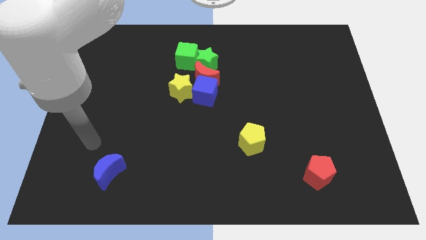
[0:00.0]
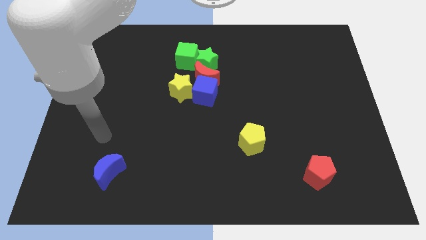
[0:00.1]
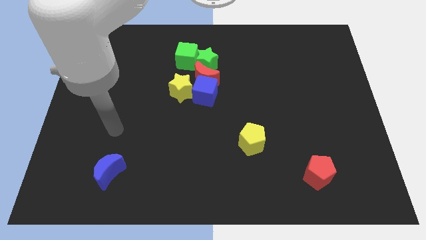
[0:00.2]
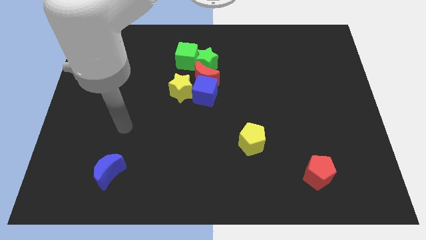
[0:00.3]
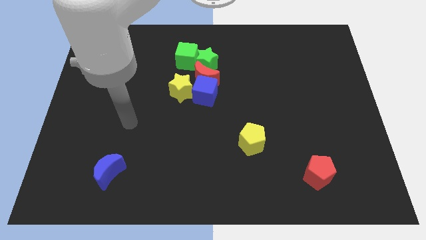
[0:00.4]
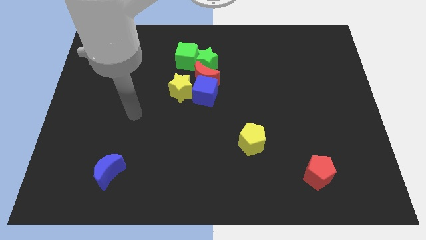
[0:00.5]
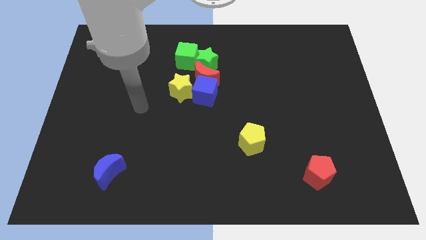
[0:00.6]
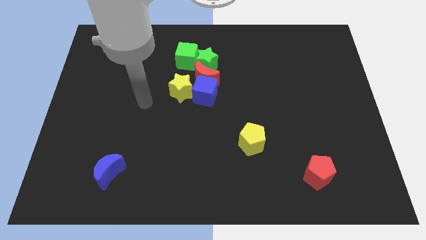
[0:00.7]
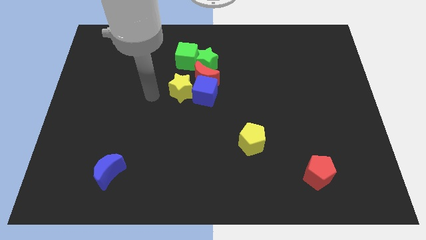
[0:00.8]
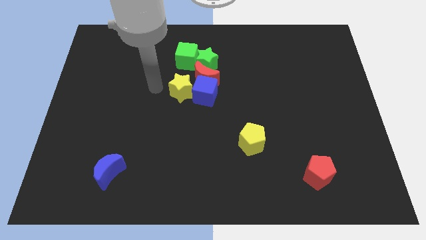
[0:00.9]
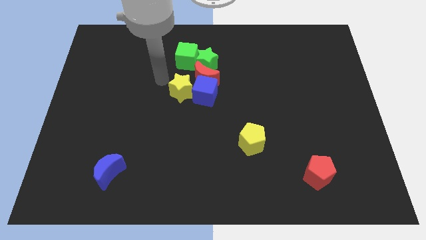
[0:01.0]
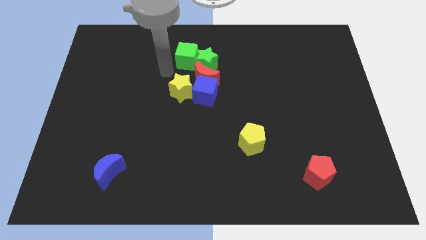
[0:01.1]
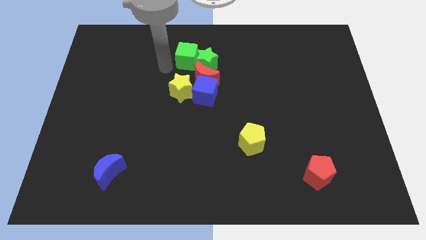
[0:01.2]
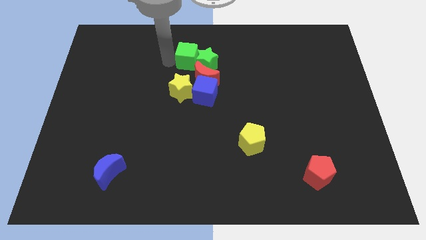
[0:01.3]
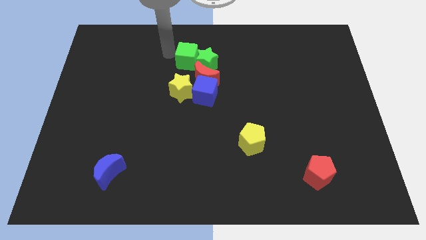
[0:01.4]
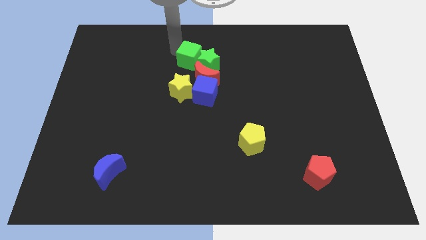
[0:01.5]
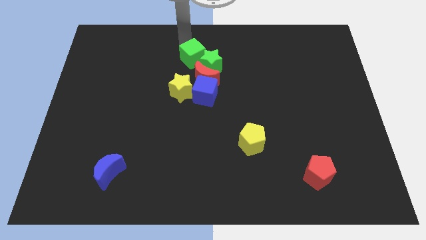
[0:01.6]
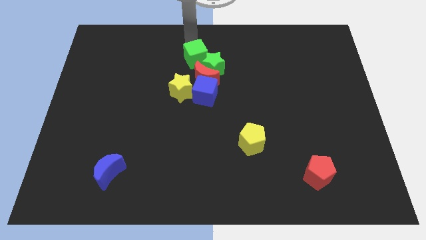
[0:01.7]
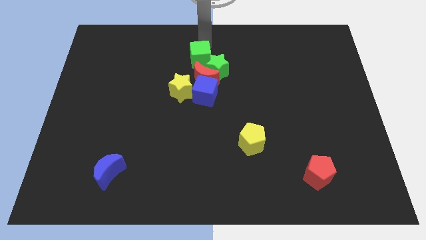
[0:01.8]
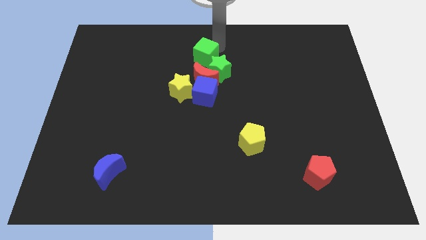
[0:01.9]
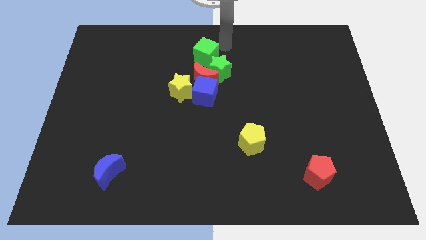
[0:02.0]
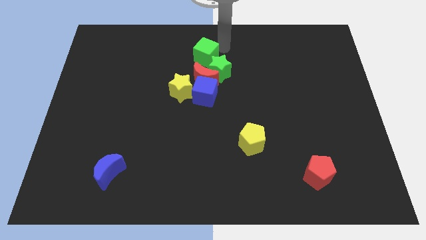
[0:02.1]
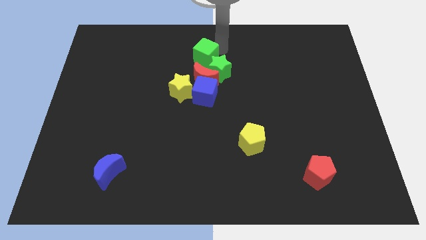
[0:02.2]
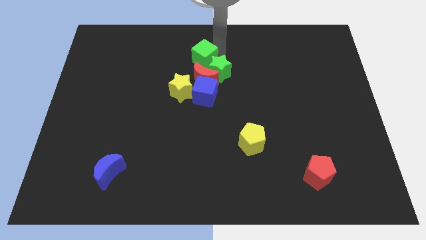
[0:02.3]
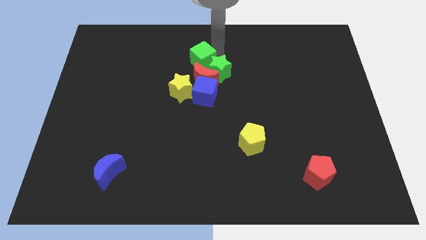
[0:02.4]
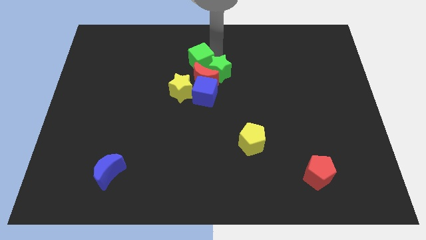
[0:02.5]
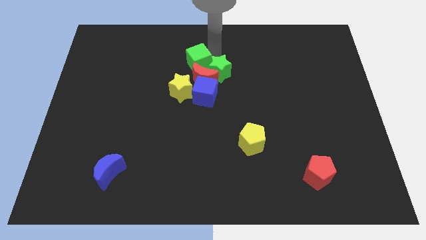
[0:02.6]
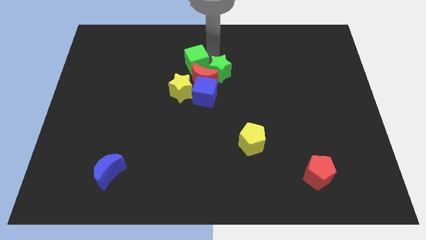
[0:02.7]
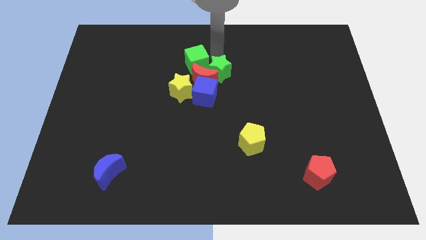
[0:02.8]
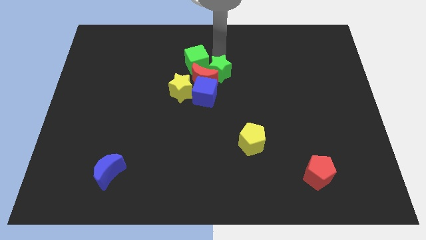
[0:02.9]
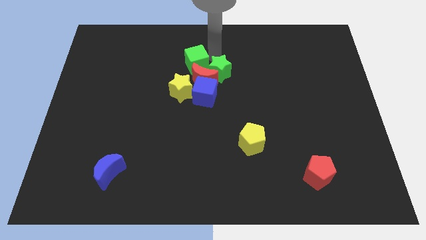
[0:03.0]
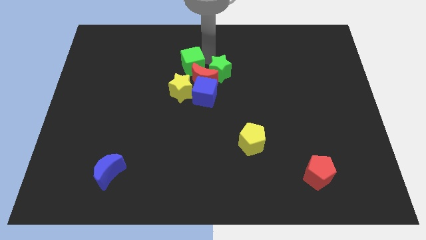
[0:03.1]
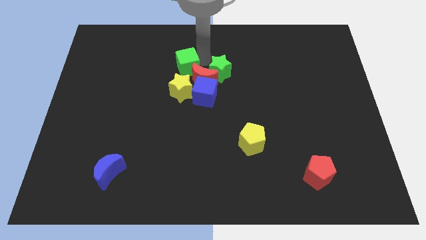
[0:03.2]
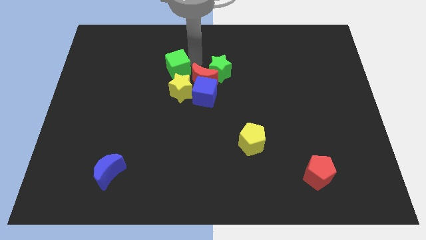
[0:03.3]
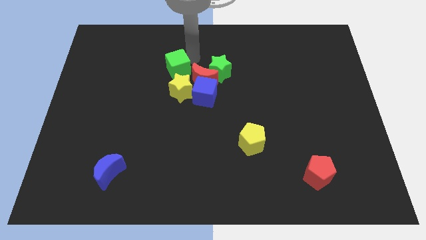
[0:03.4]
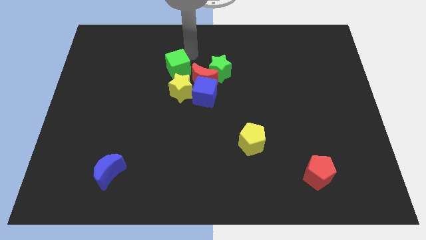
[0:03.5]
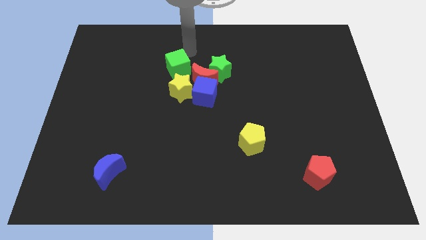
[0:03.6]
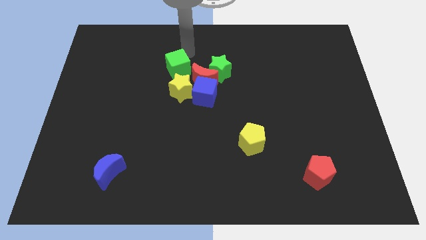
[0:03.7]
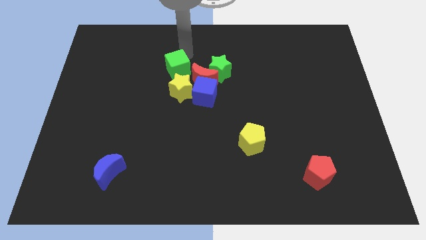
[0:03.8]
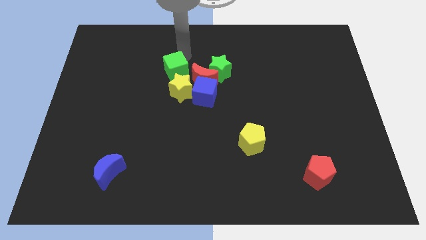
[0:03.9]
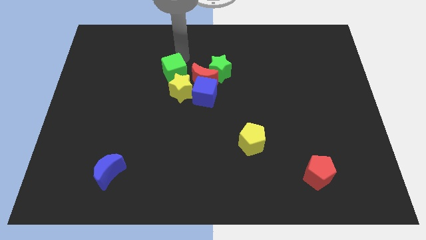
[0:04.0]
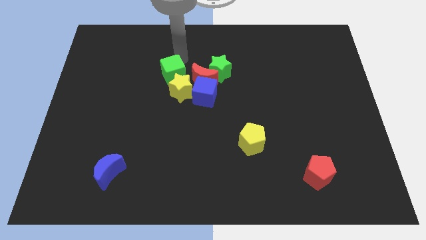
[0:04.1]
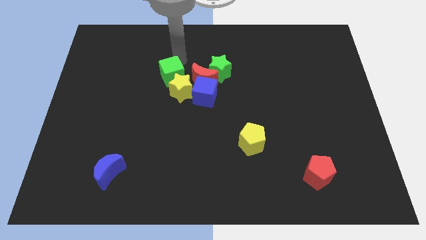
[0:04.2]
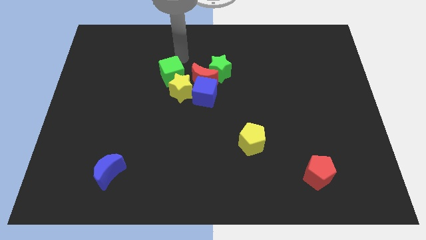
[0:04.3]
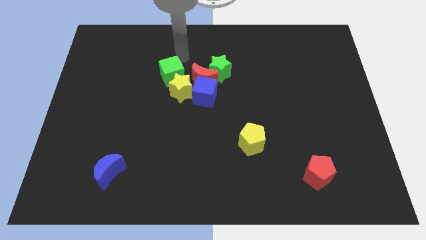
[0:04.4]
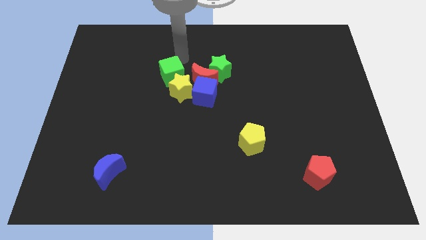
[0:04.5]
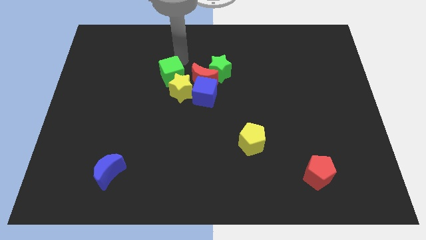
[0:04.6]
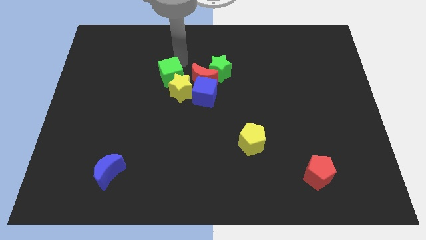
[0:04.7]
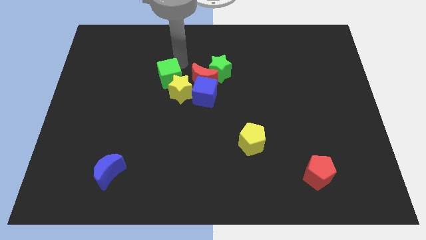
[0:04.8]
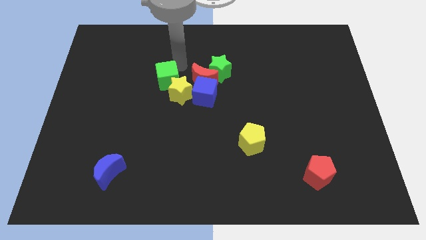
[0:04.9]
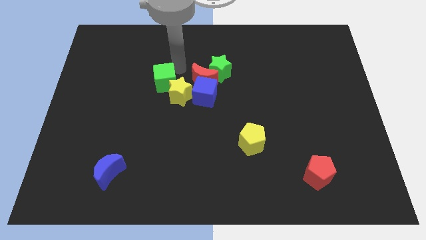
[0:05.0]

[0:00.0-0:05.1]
move the green cube down a bit

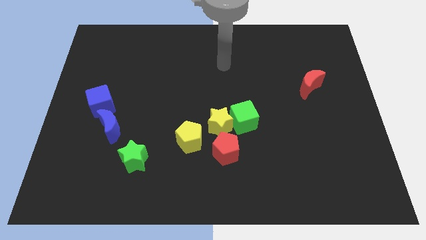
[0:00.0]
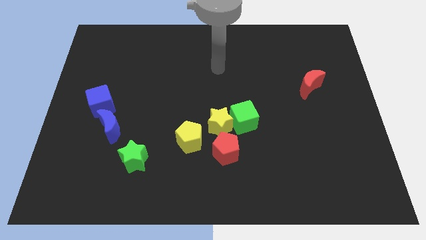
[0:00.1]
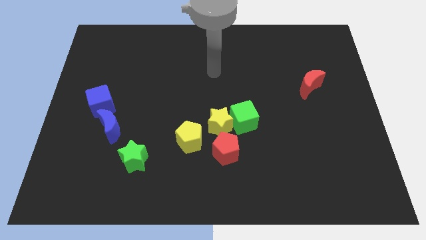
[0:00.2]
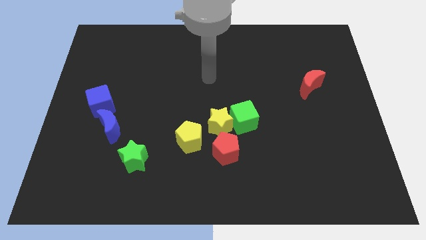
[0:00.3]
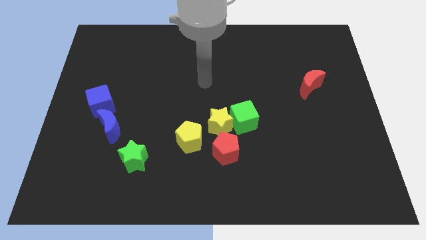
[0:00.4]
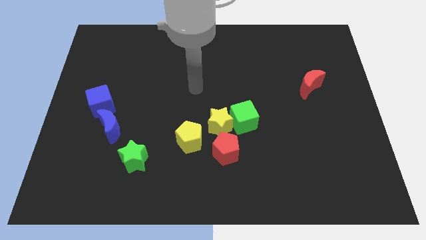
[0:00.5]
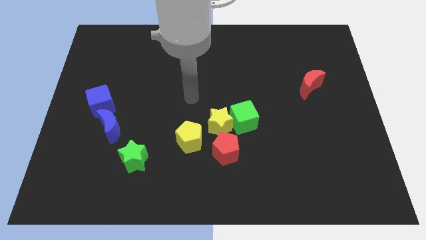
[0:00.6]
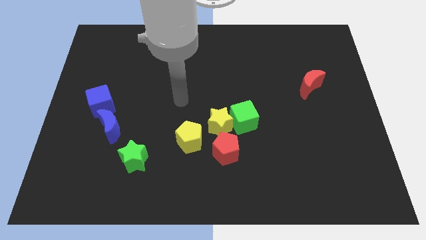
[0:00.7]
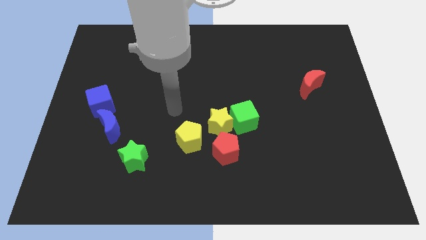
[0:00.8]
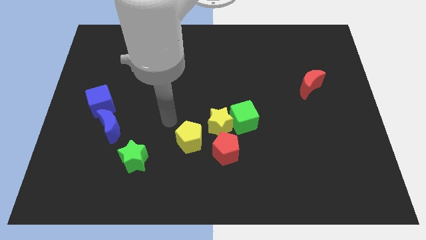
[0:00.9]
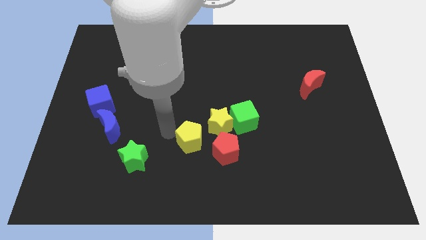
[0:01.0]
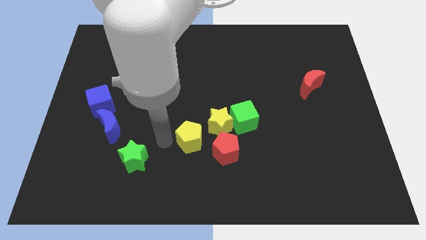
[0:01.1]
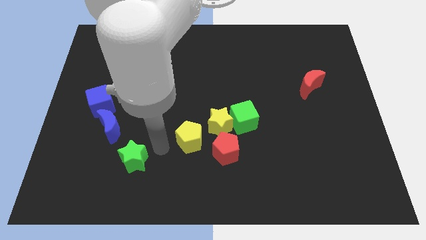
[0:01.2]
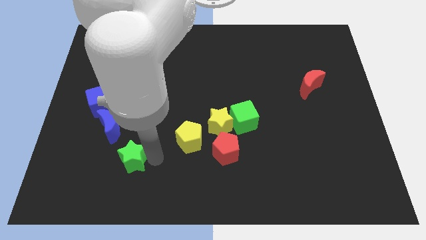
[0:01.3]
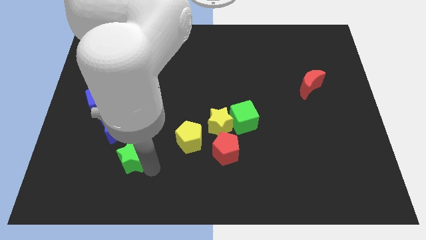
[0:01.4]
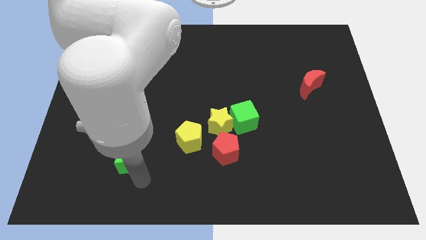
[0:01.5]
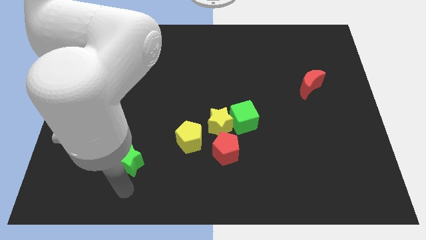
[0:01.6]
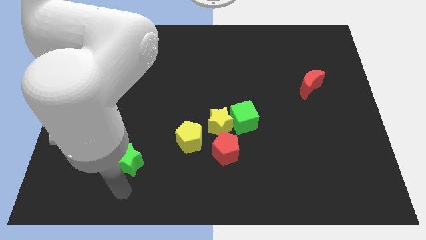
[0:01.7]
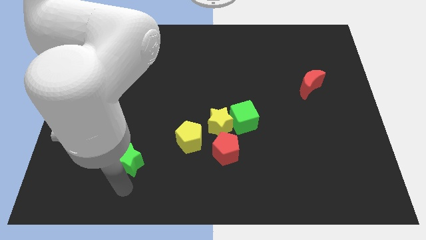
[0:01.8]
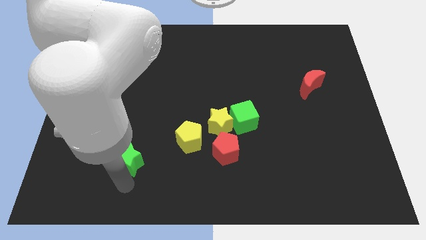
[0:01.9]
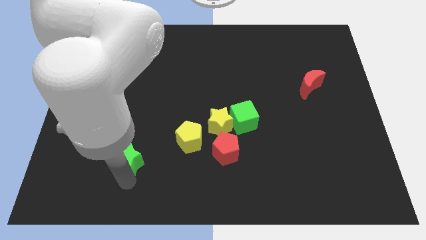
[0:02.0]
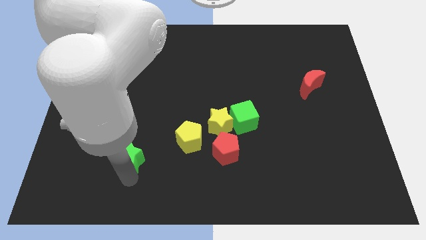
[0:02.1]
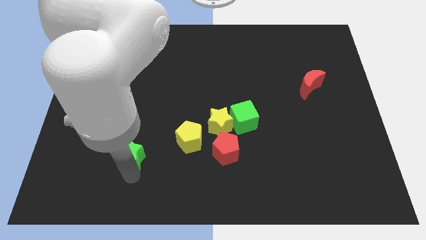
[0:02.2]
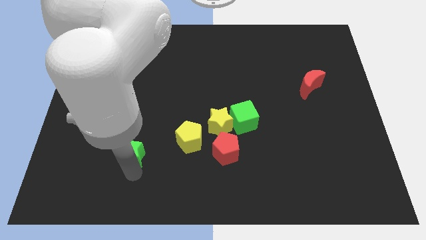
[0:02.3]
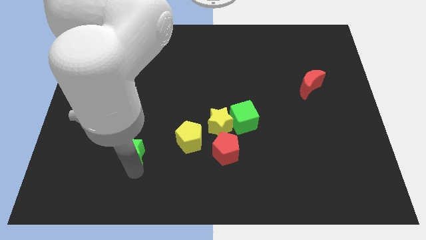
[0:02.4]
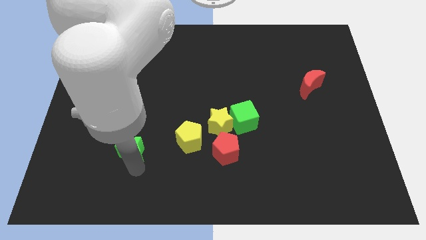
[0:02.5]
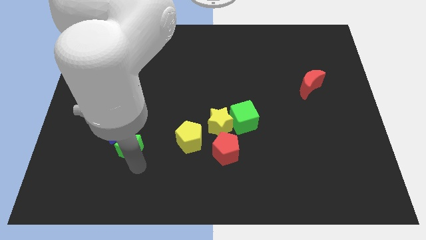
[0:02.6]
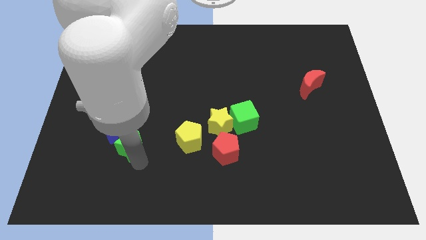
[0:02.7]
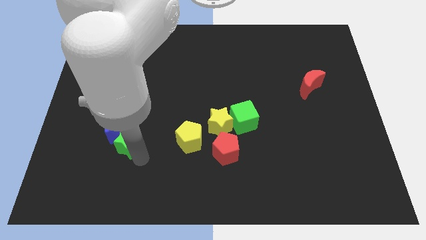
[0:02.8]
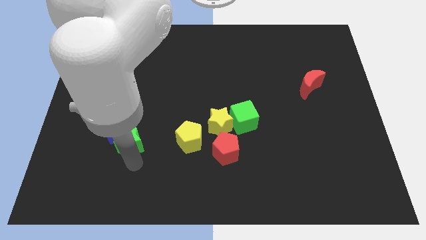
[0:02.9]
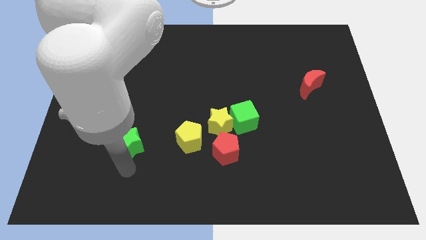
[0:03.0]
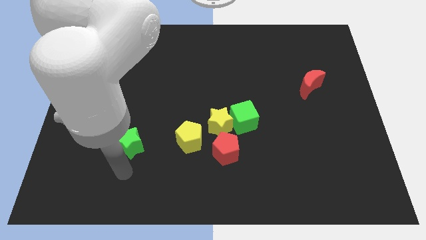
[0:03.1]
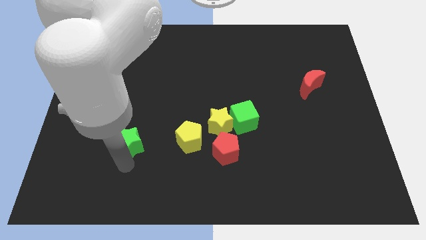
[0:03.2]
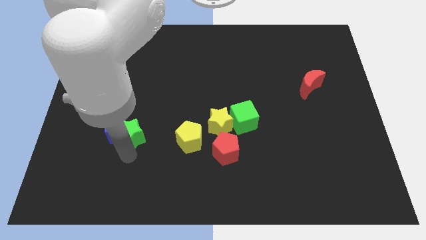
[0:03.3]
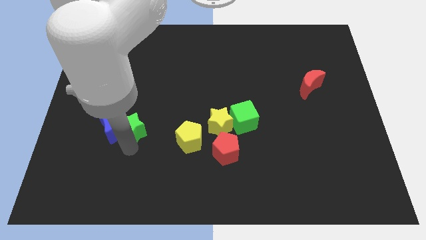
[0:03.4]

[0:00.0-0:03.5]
slide the green star somewhat up
